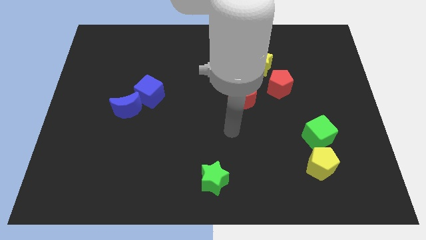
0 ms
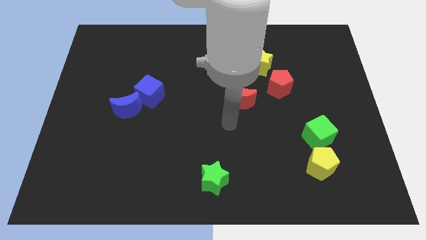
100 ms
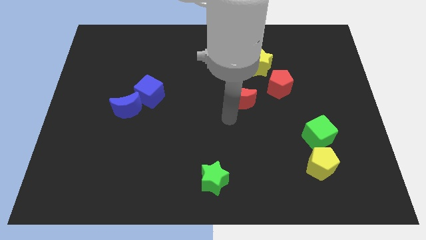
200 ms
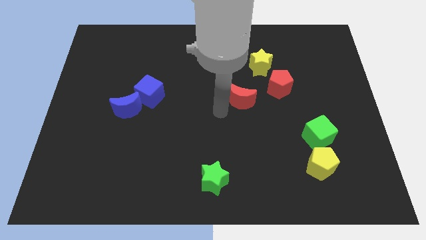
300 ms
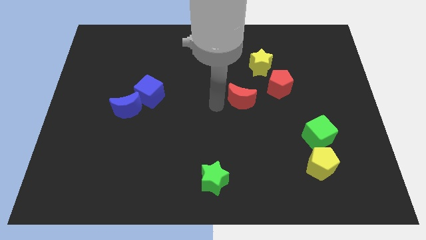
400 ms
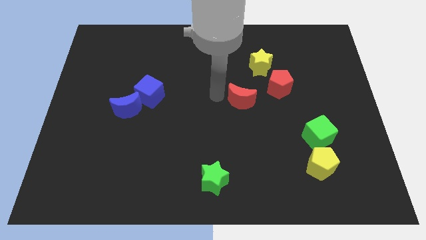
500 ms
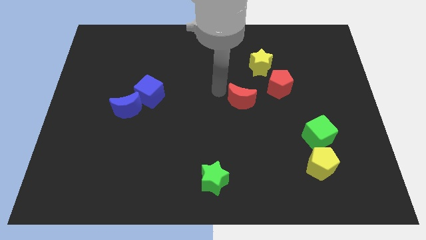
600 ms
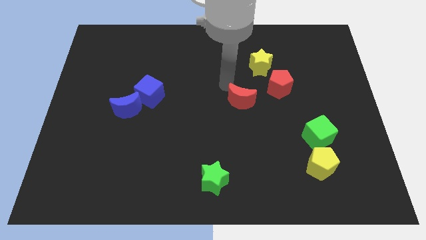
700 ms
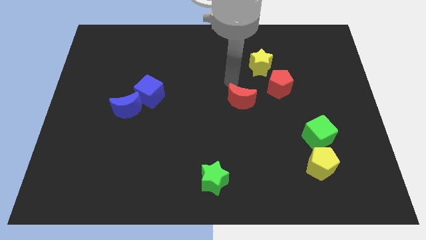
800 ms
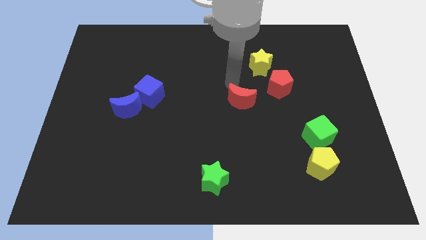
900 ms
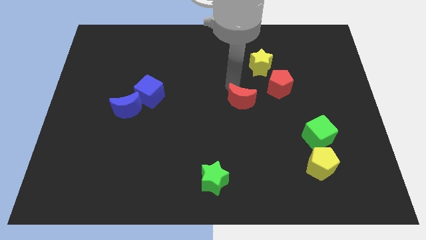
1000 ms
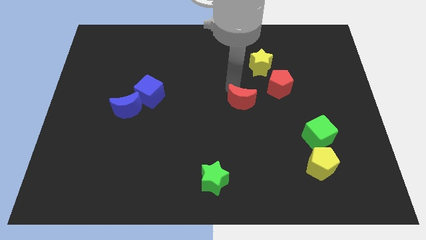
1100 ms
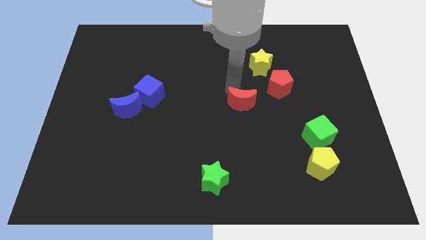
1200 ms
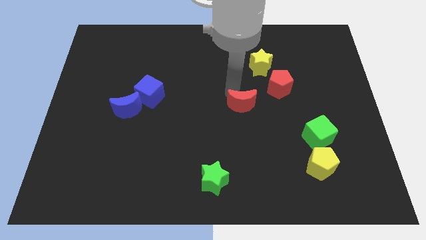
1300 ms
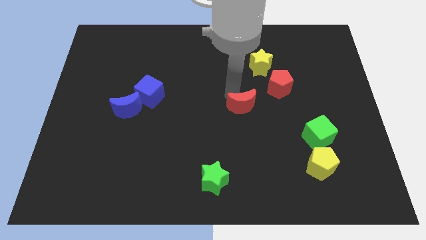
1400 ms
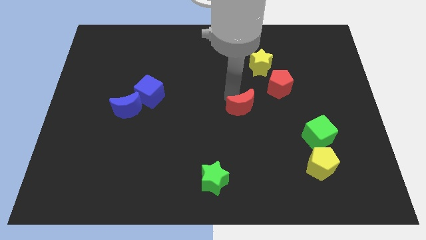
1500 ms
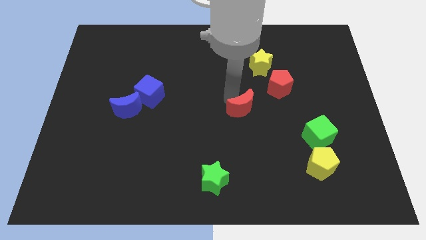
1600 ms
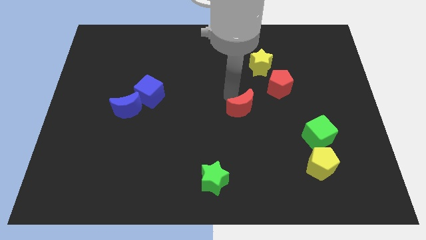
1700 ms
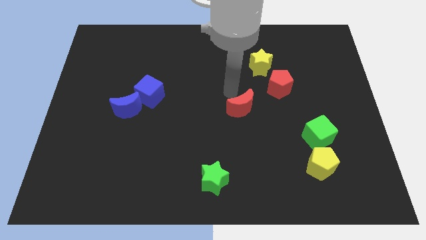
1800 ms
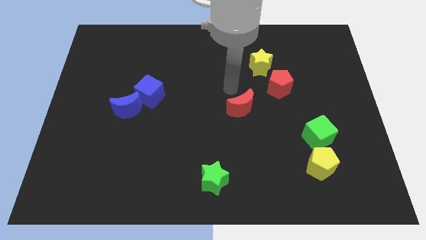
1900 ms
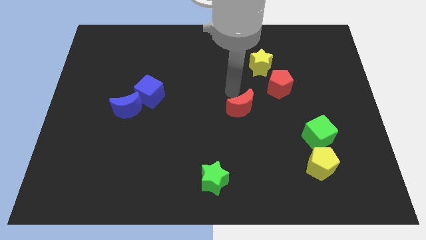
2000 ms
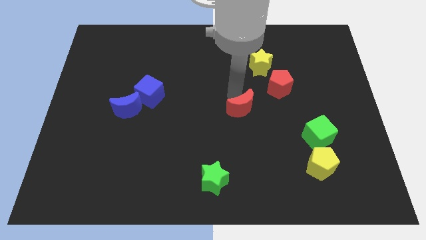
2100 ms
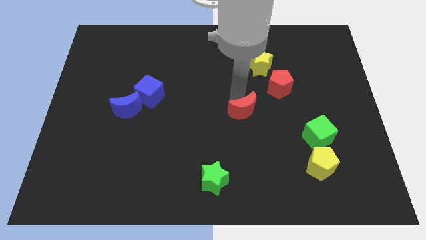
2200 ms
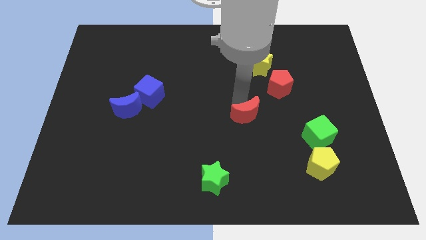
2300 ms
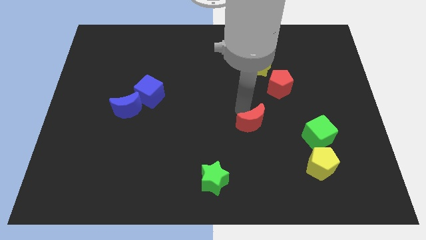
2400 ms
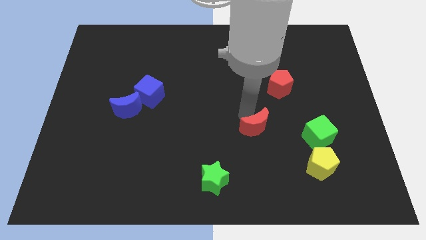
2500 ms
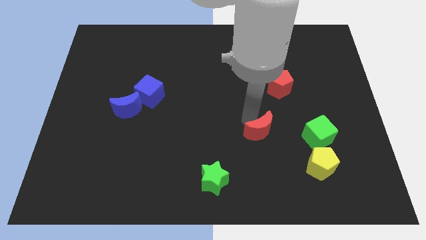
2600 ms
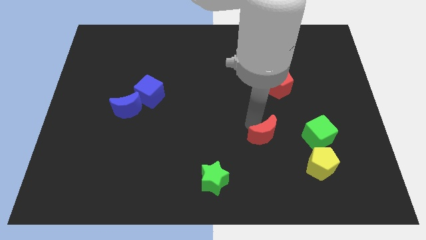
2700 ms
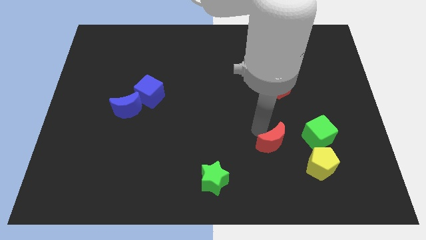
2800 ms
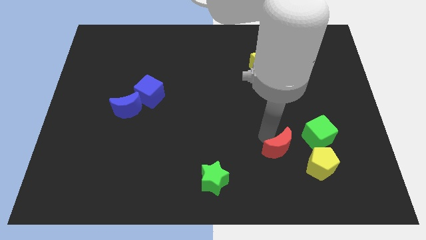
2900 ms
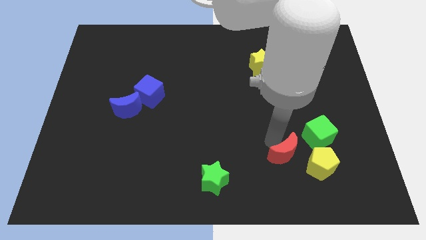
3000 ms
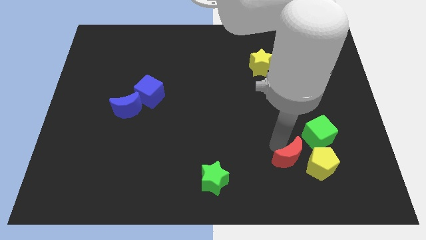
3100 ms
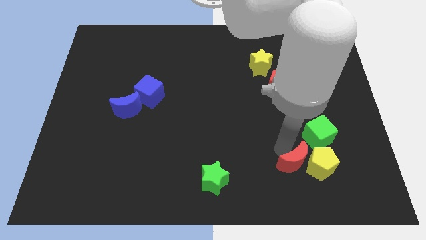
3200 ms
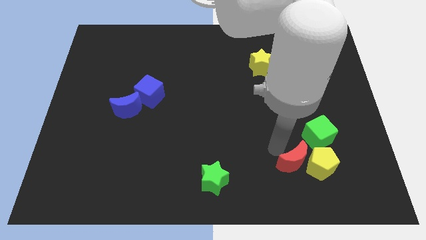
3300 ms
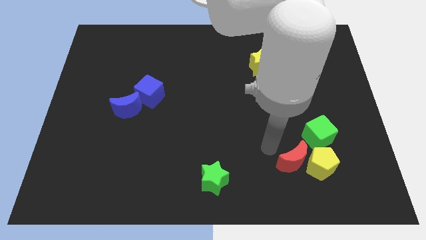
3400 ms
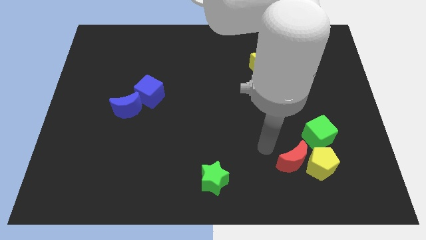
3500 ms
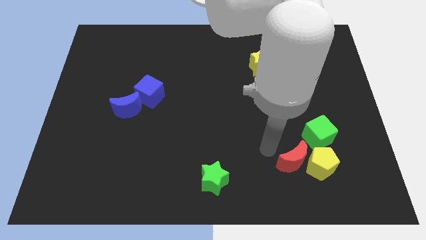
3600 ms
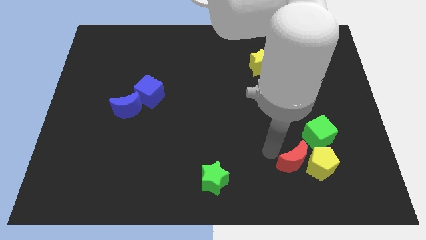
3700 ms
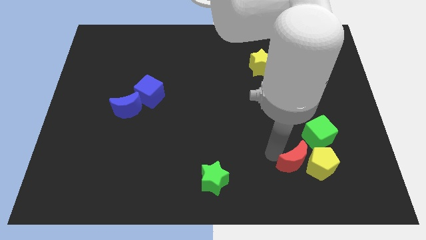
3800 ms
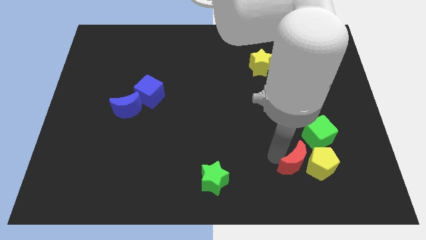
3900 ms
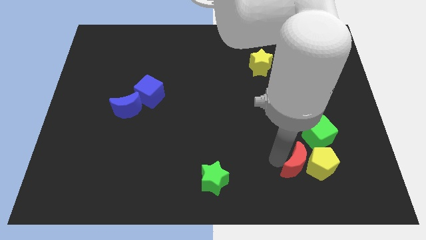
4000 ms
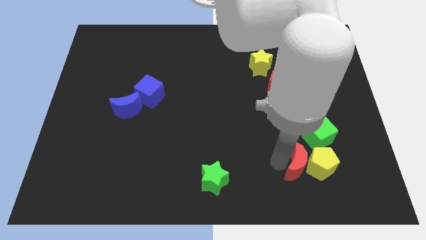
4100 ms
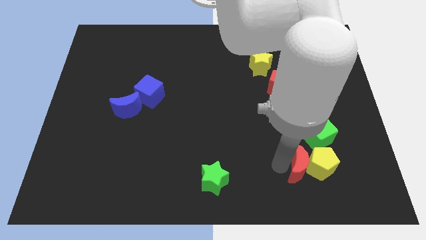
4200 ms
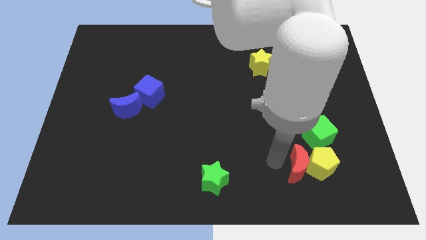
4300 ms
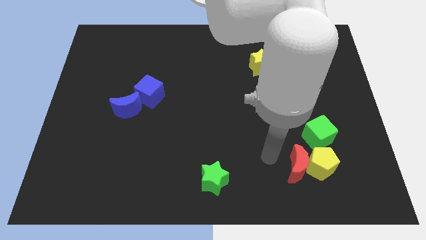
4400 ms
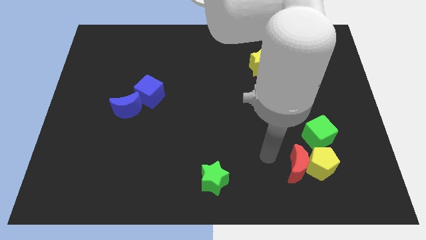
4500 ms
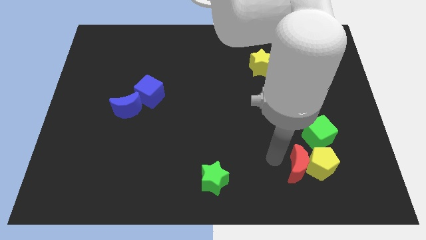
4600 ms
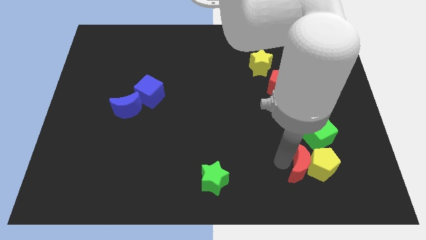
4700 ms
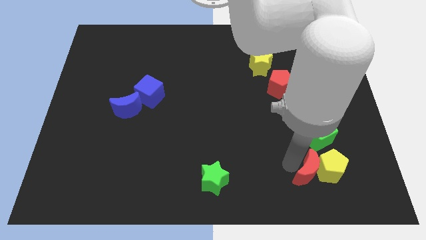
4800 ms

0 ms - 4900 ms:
push the red moon below the green cube

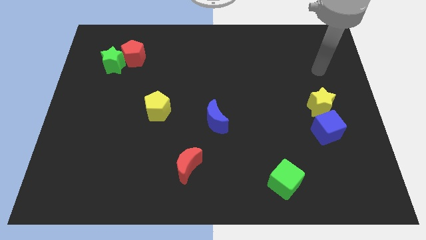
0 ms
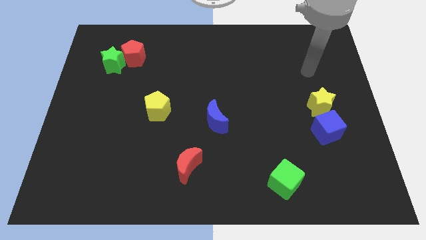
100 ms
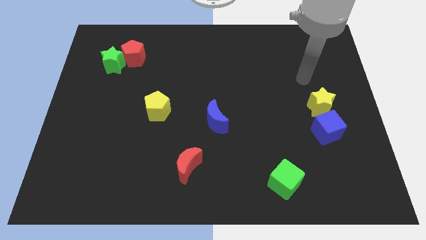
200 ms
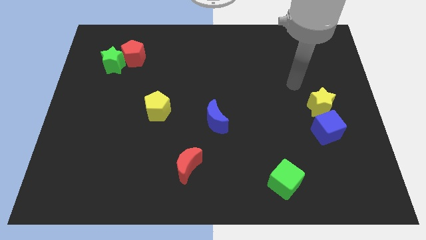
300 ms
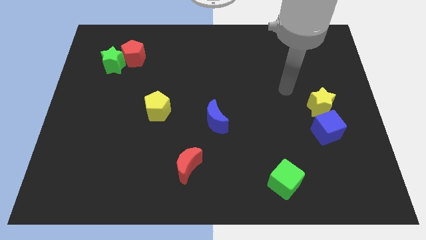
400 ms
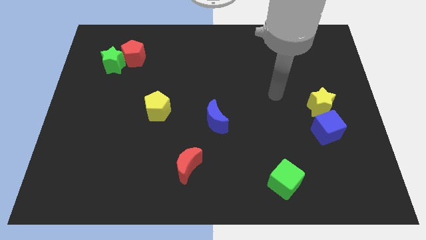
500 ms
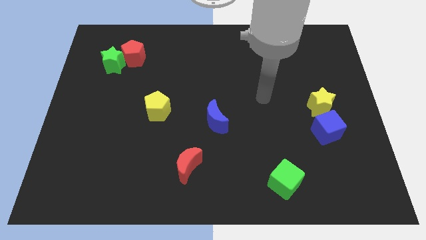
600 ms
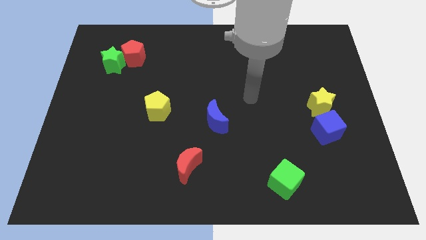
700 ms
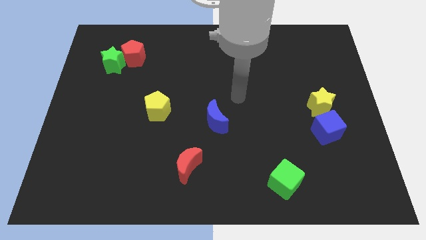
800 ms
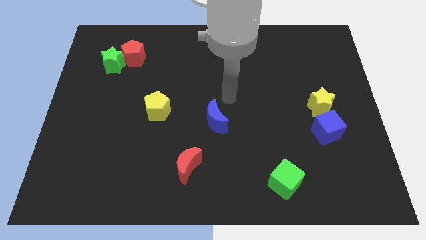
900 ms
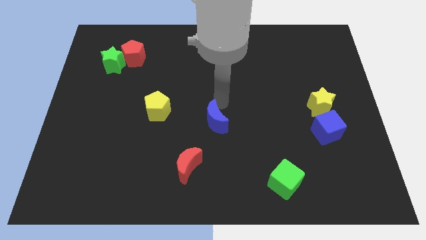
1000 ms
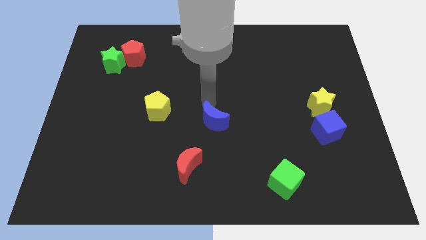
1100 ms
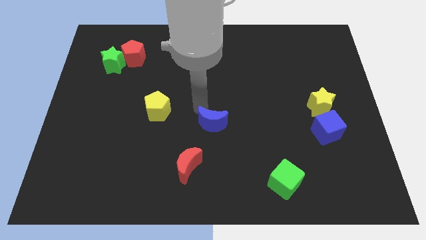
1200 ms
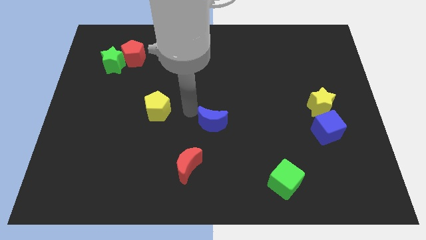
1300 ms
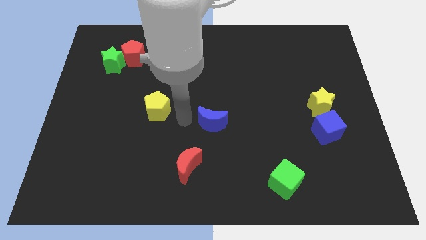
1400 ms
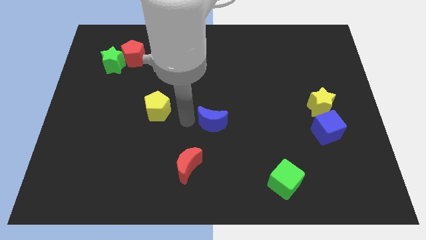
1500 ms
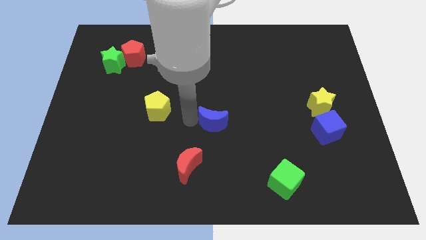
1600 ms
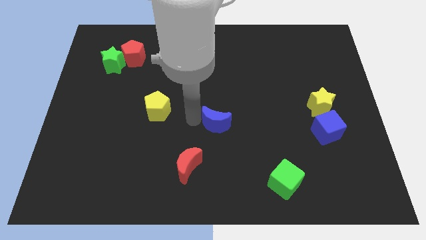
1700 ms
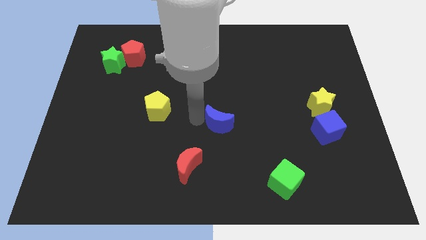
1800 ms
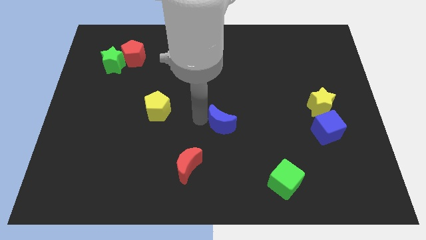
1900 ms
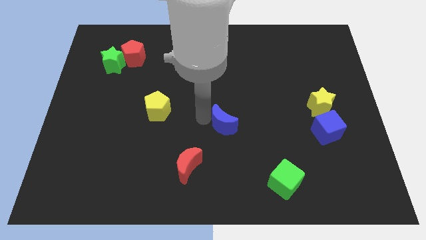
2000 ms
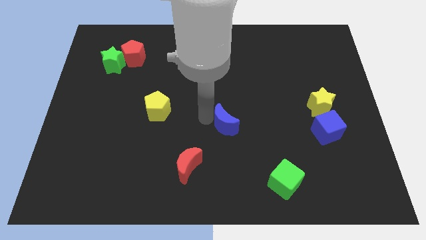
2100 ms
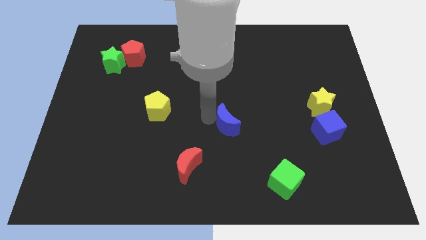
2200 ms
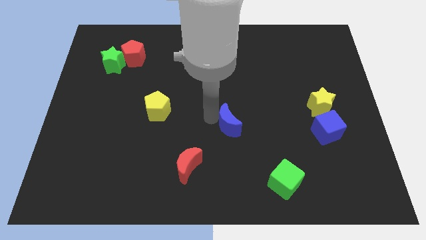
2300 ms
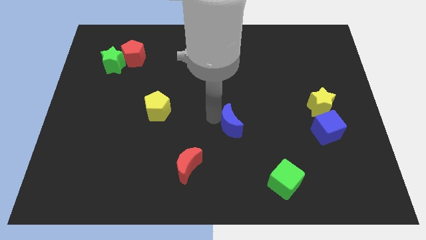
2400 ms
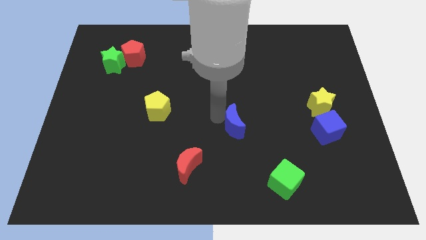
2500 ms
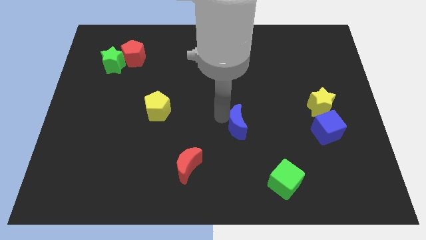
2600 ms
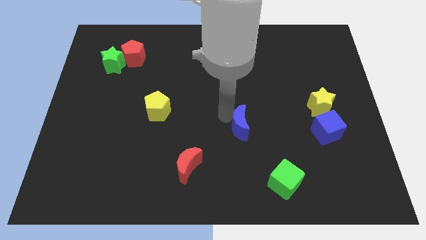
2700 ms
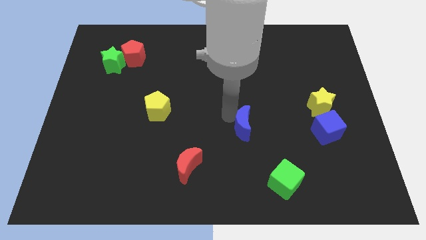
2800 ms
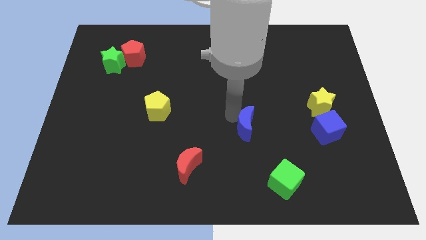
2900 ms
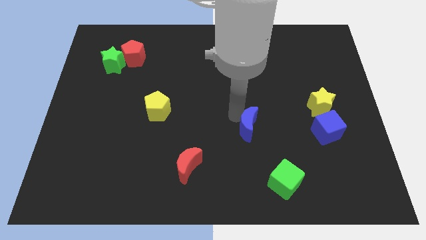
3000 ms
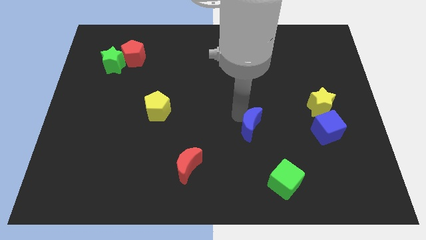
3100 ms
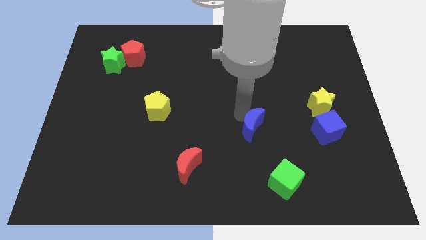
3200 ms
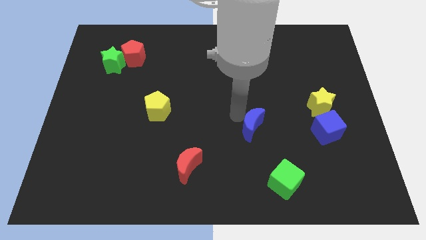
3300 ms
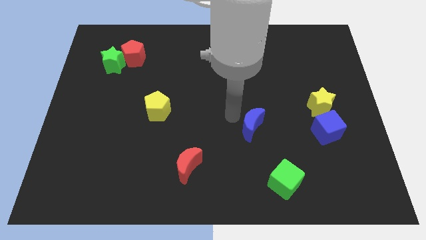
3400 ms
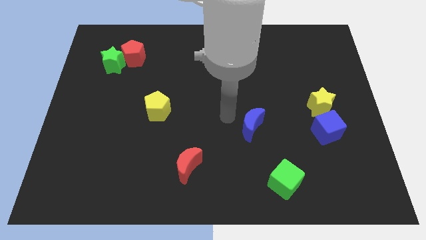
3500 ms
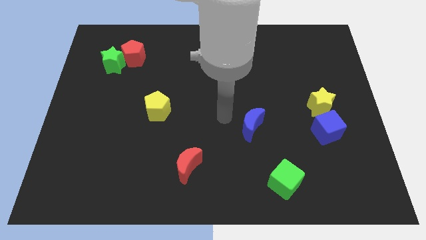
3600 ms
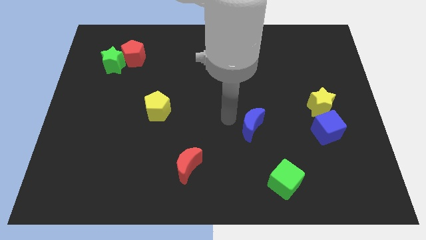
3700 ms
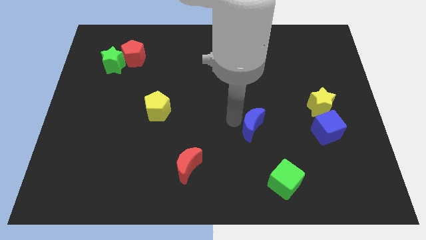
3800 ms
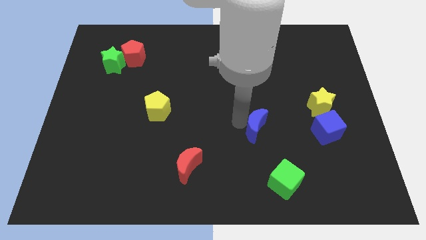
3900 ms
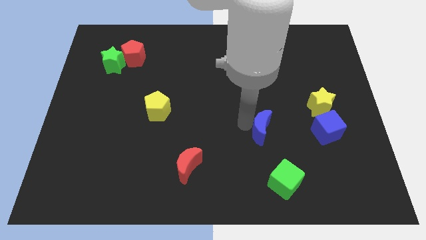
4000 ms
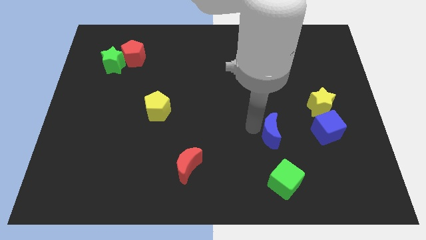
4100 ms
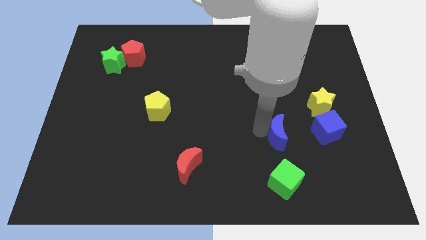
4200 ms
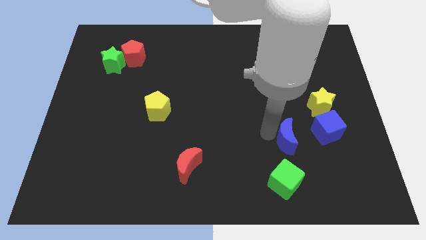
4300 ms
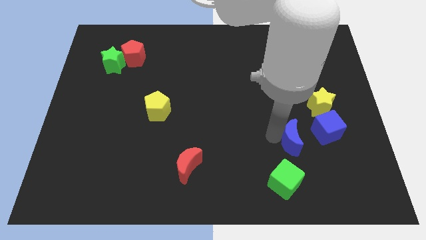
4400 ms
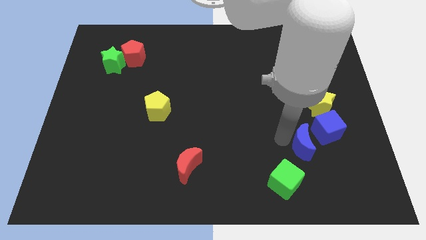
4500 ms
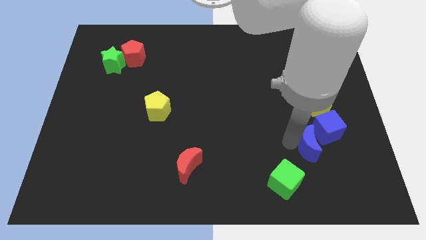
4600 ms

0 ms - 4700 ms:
push the blue moon below the yellow star
